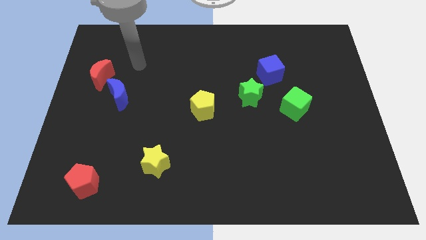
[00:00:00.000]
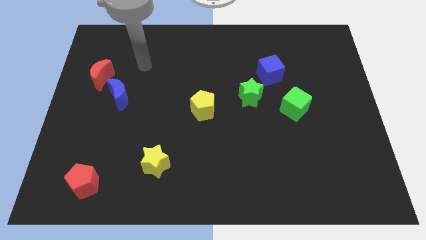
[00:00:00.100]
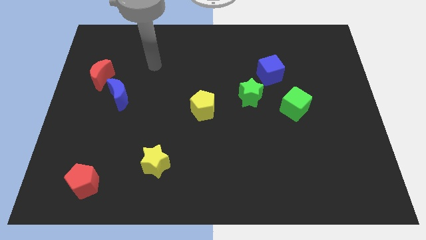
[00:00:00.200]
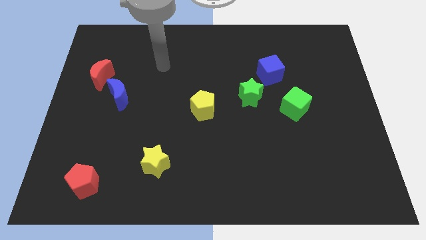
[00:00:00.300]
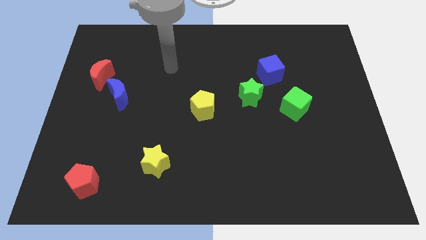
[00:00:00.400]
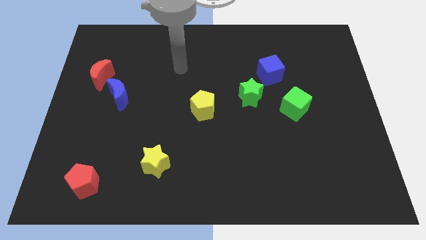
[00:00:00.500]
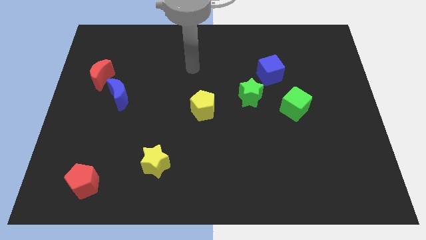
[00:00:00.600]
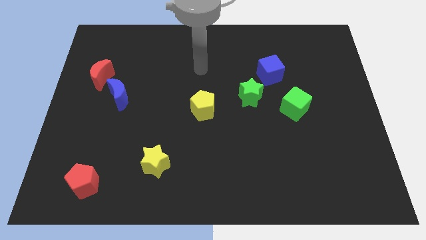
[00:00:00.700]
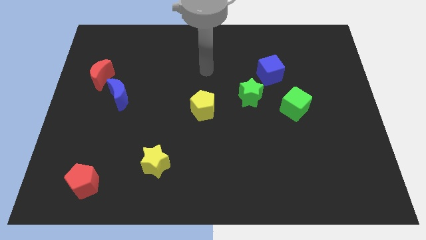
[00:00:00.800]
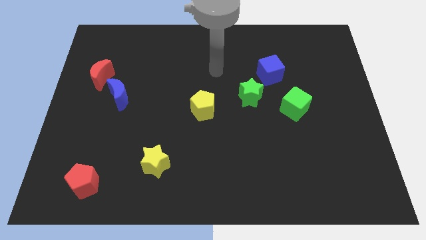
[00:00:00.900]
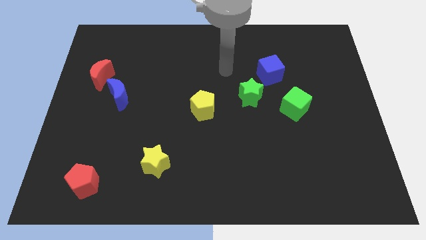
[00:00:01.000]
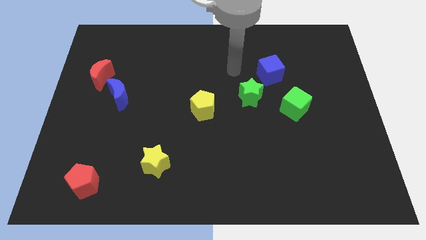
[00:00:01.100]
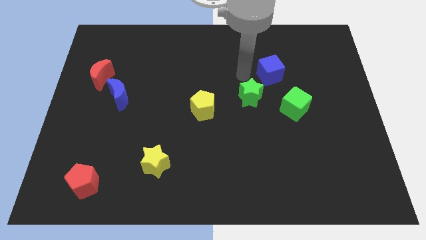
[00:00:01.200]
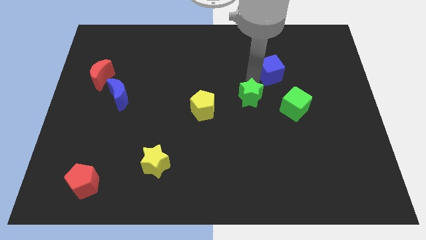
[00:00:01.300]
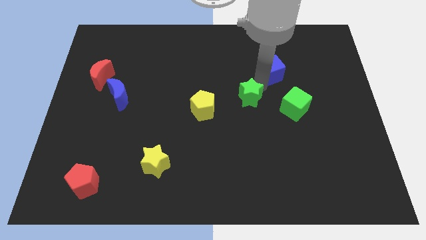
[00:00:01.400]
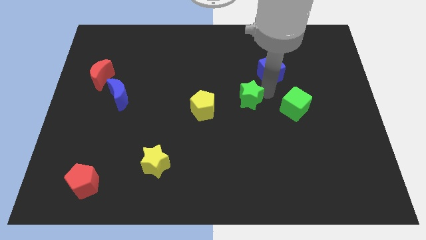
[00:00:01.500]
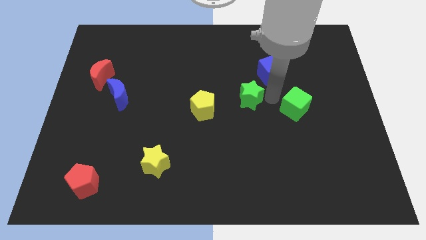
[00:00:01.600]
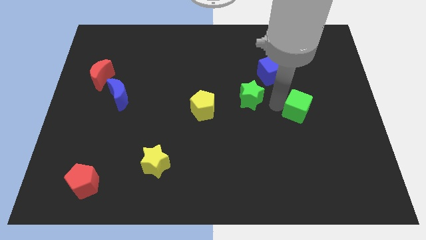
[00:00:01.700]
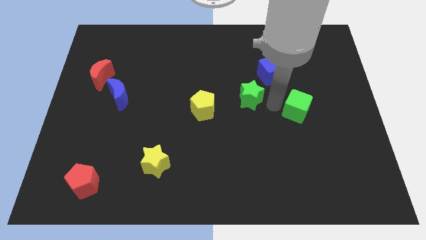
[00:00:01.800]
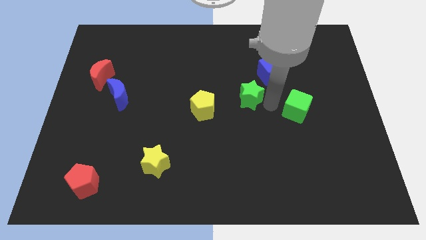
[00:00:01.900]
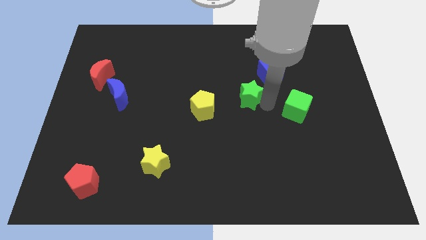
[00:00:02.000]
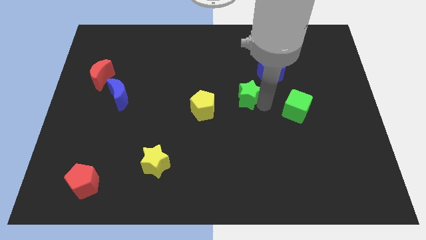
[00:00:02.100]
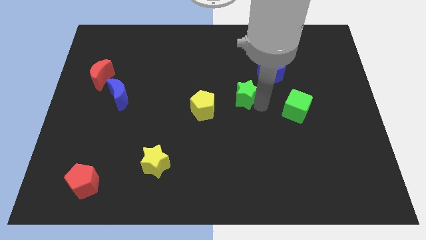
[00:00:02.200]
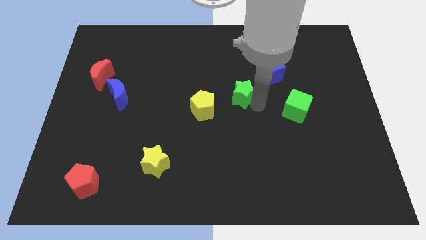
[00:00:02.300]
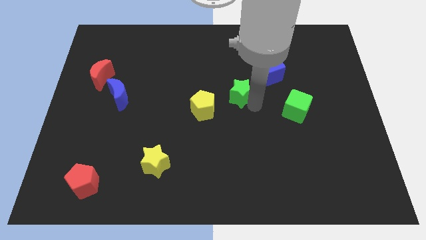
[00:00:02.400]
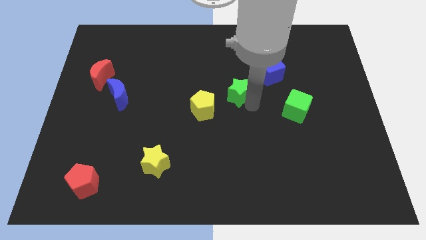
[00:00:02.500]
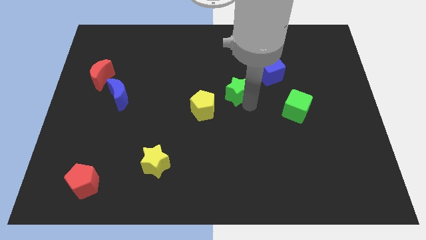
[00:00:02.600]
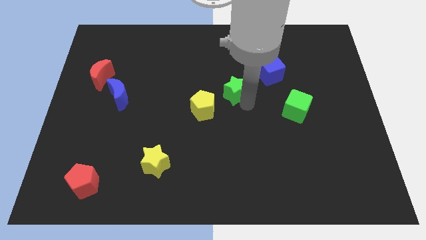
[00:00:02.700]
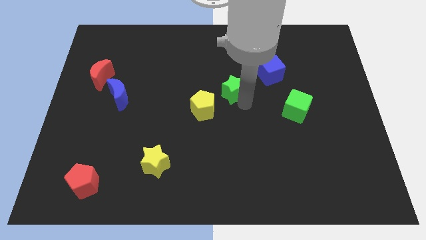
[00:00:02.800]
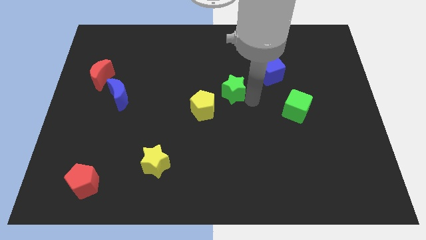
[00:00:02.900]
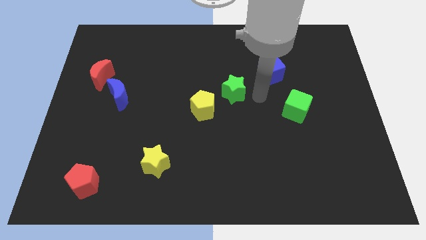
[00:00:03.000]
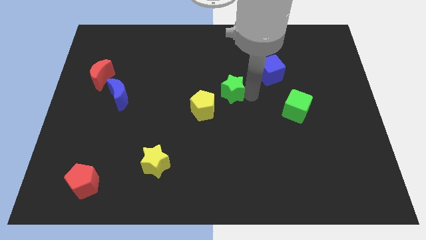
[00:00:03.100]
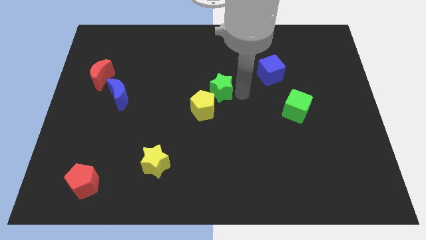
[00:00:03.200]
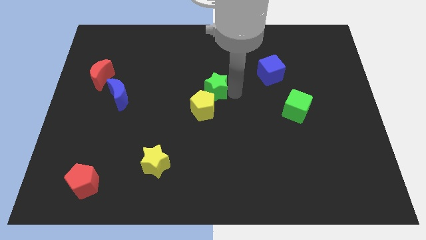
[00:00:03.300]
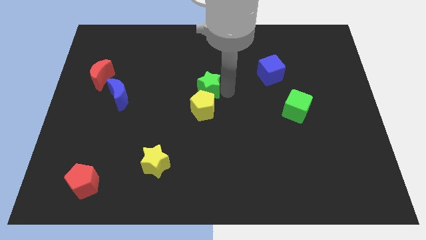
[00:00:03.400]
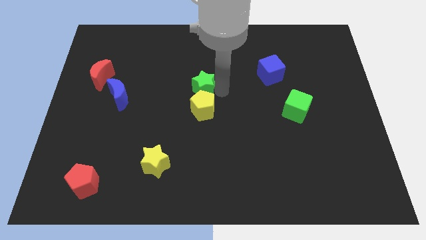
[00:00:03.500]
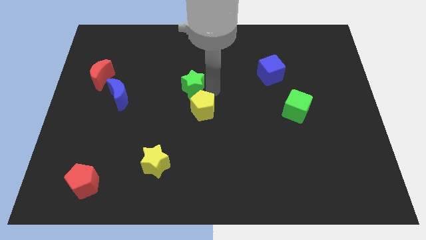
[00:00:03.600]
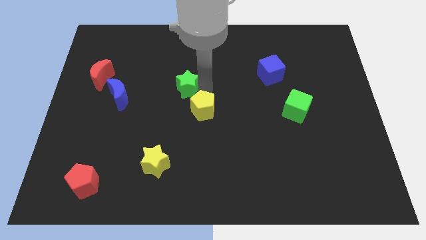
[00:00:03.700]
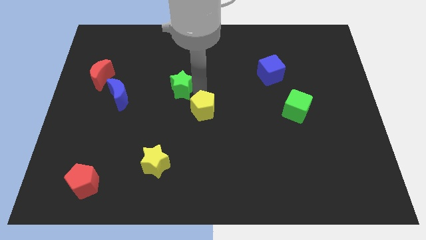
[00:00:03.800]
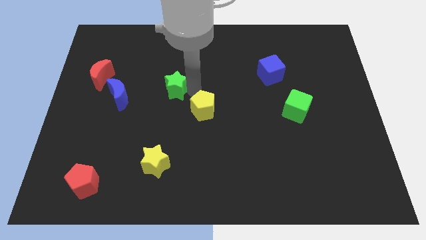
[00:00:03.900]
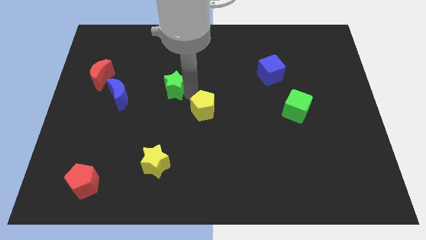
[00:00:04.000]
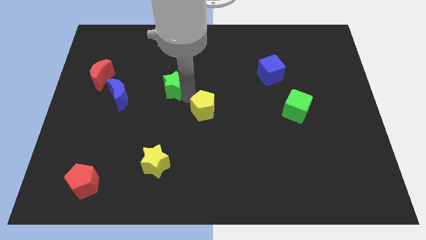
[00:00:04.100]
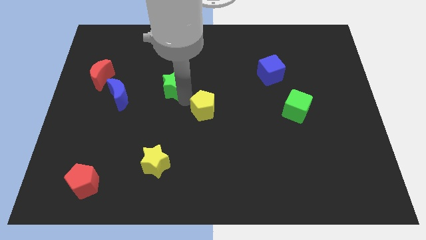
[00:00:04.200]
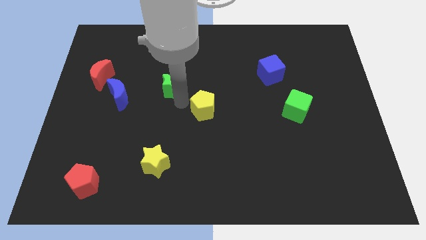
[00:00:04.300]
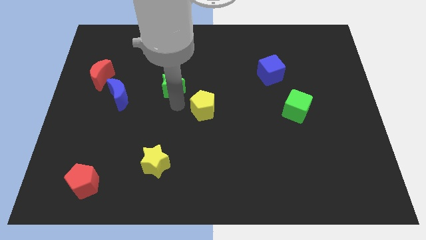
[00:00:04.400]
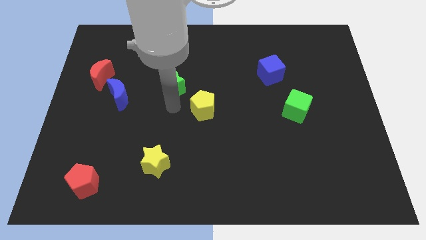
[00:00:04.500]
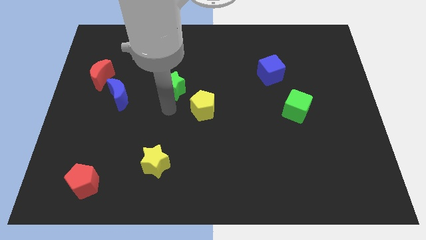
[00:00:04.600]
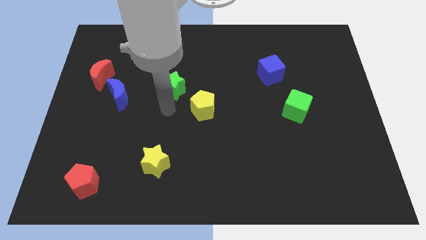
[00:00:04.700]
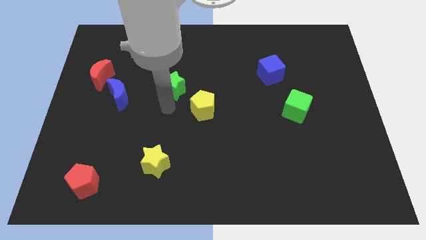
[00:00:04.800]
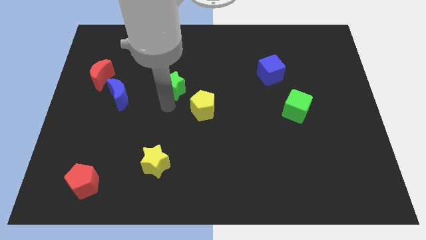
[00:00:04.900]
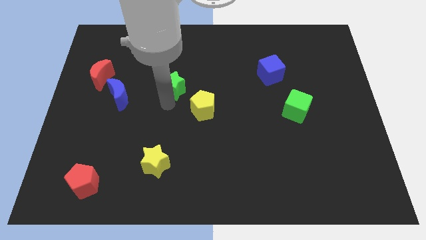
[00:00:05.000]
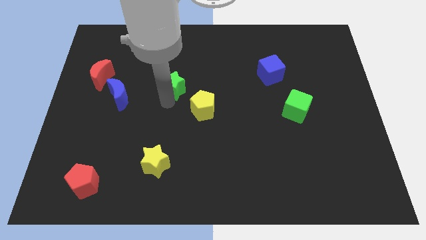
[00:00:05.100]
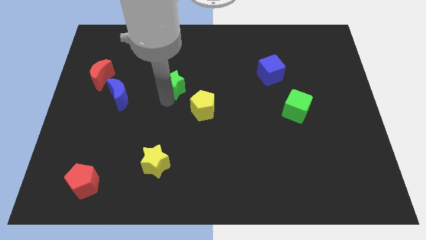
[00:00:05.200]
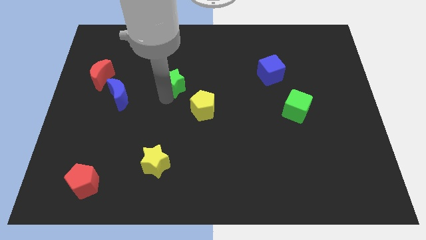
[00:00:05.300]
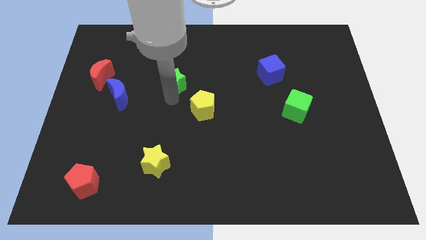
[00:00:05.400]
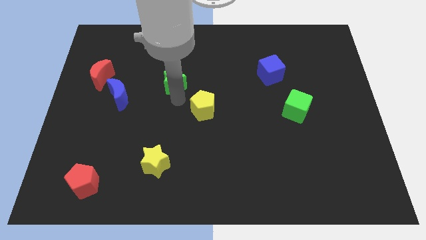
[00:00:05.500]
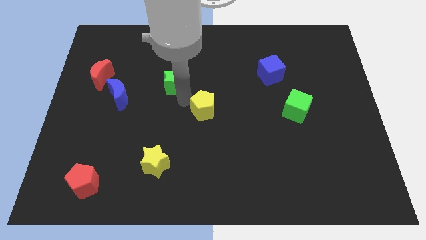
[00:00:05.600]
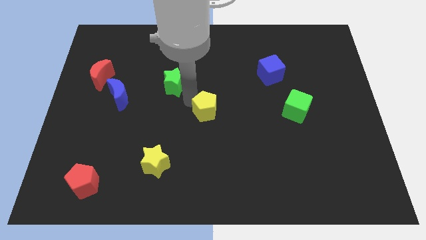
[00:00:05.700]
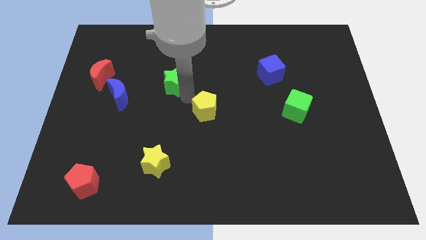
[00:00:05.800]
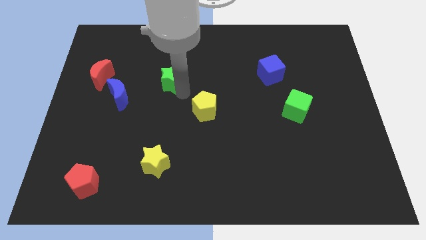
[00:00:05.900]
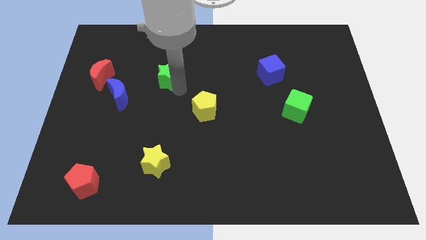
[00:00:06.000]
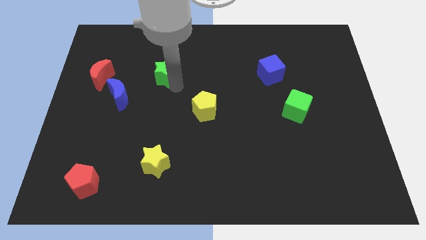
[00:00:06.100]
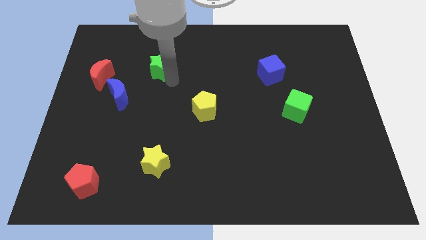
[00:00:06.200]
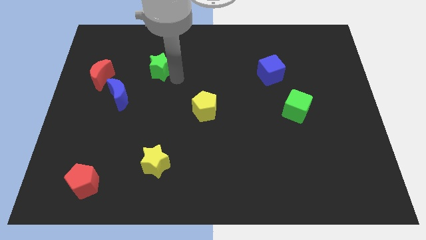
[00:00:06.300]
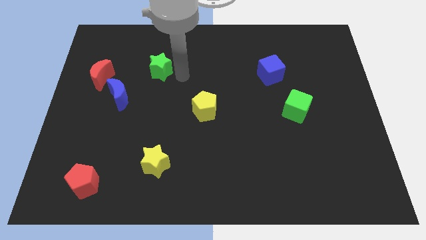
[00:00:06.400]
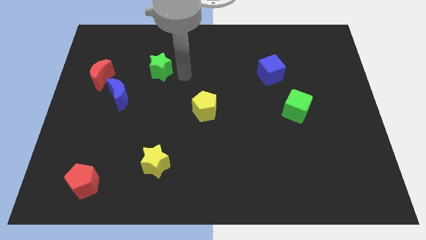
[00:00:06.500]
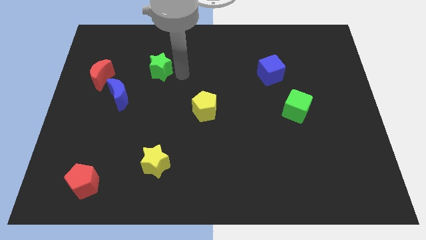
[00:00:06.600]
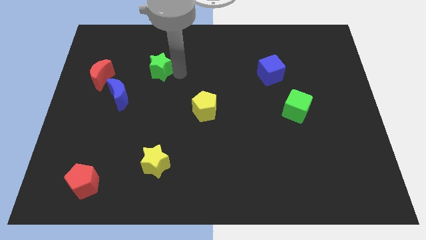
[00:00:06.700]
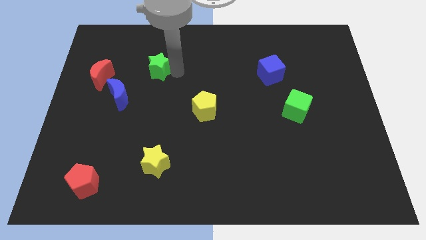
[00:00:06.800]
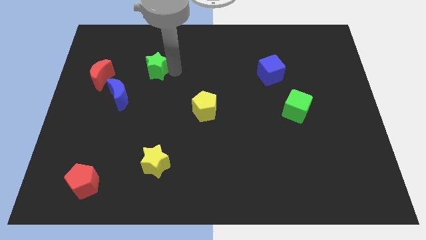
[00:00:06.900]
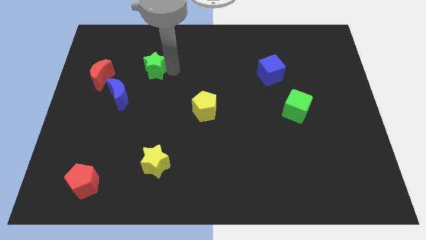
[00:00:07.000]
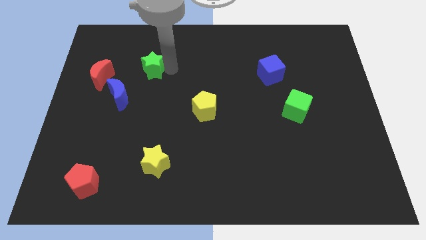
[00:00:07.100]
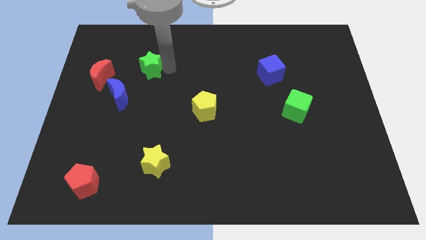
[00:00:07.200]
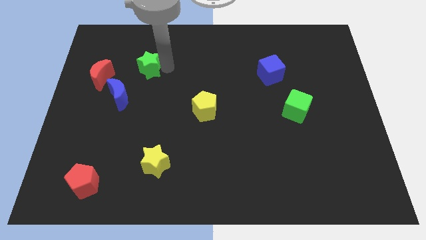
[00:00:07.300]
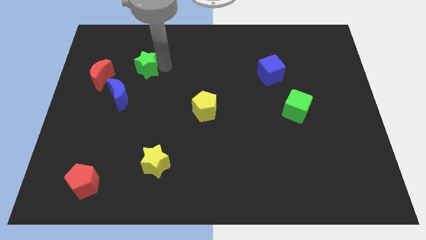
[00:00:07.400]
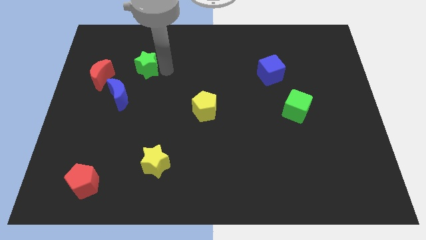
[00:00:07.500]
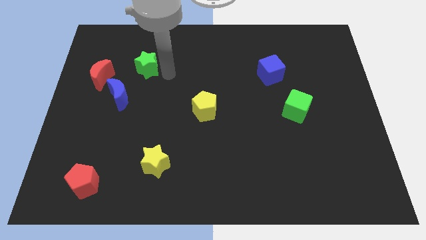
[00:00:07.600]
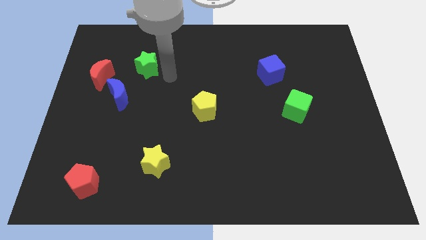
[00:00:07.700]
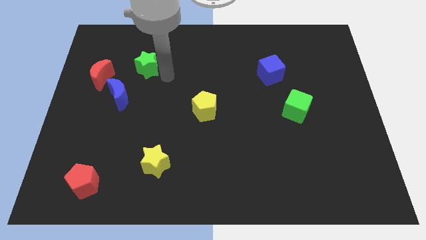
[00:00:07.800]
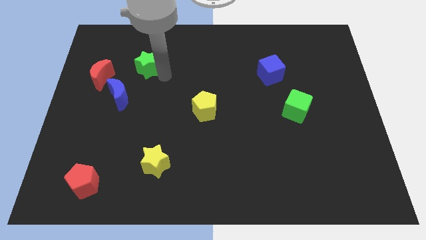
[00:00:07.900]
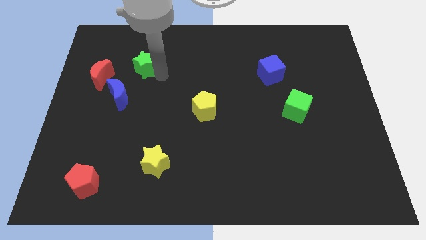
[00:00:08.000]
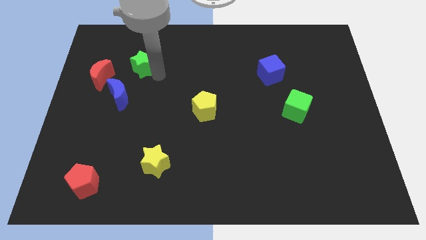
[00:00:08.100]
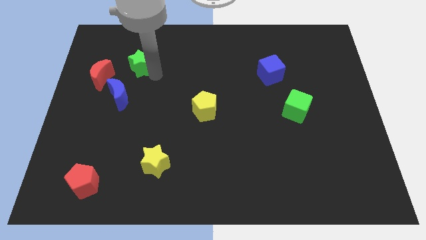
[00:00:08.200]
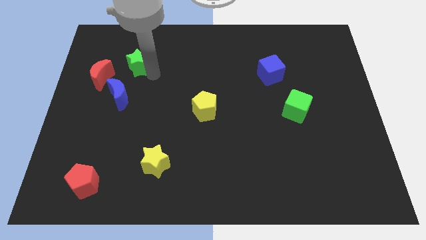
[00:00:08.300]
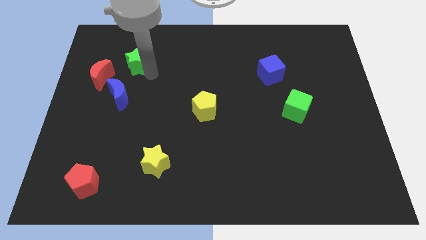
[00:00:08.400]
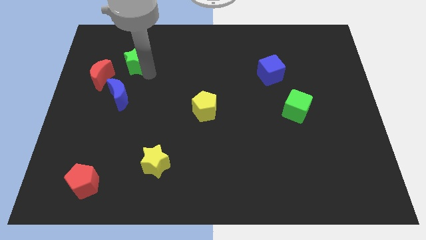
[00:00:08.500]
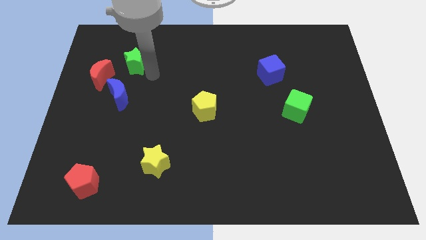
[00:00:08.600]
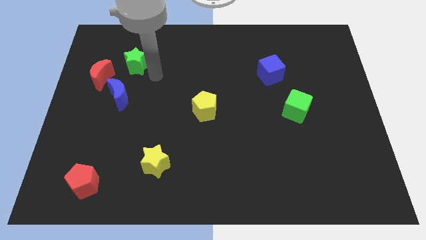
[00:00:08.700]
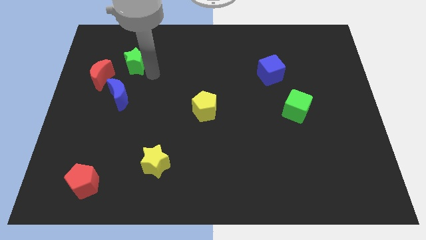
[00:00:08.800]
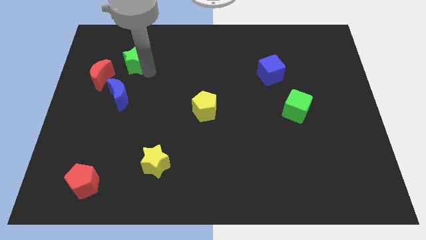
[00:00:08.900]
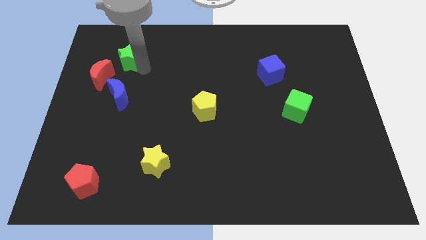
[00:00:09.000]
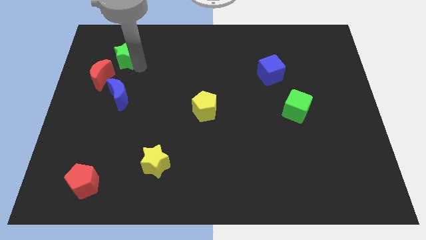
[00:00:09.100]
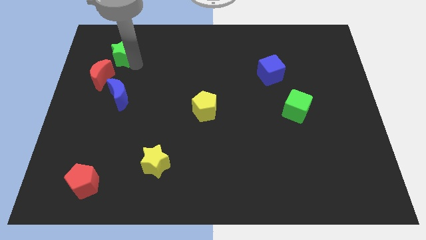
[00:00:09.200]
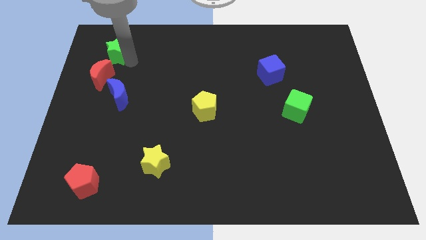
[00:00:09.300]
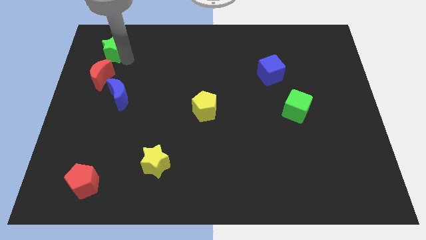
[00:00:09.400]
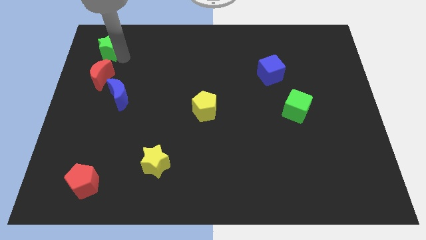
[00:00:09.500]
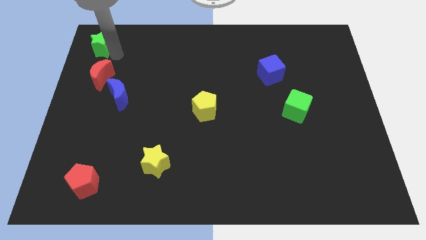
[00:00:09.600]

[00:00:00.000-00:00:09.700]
push the green star to the top left corner
